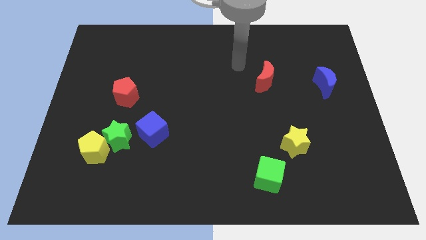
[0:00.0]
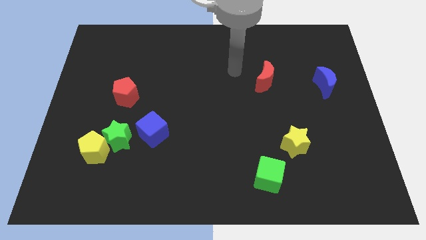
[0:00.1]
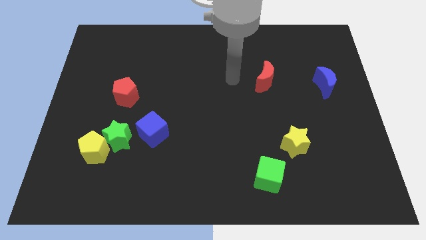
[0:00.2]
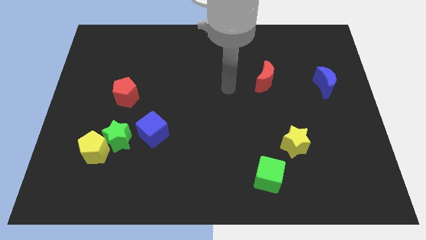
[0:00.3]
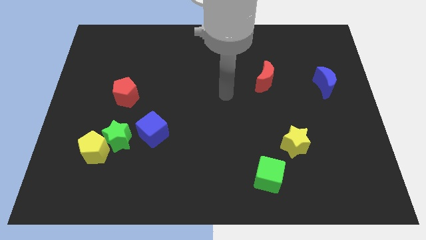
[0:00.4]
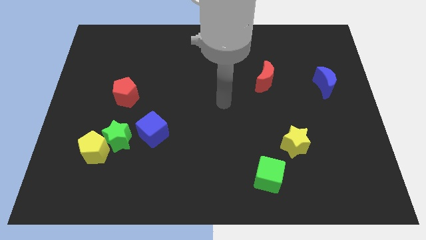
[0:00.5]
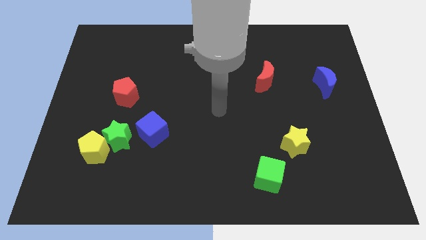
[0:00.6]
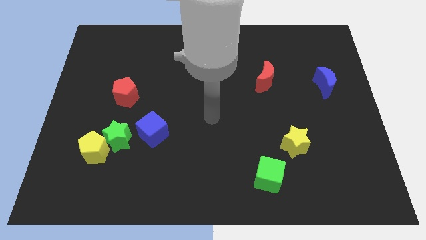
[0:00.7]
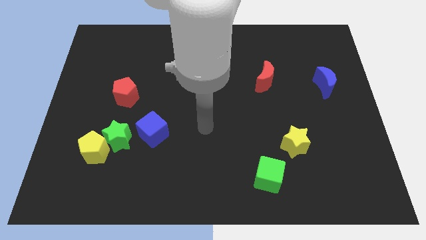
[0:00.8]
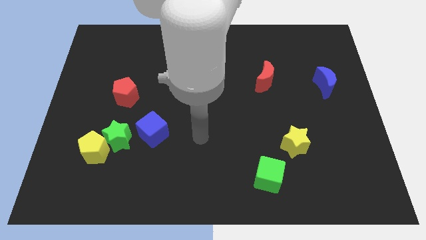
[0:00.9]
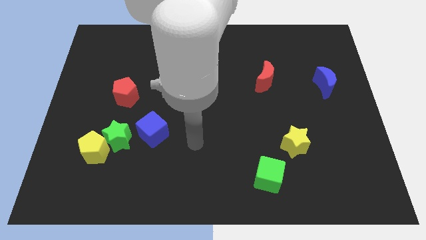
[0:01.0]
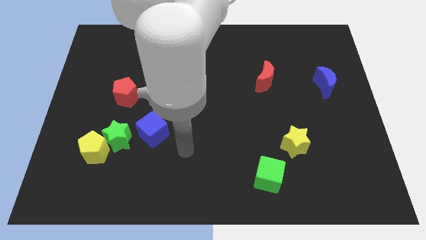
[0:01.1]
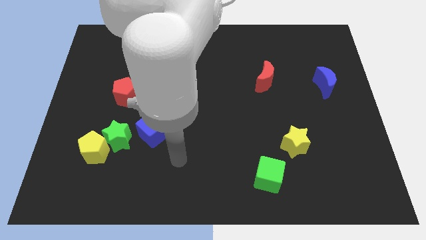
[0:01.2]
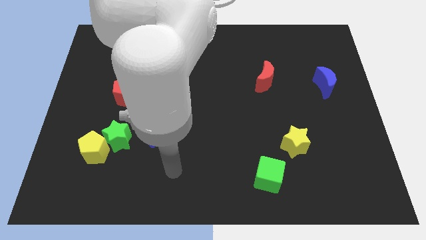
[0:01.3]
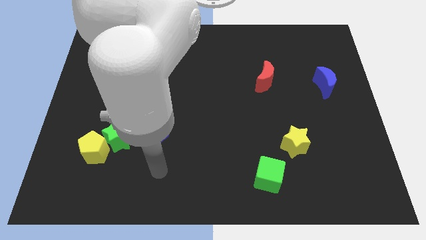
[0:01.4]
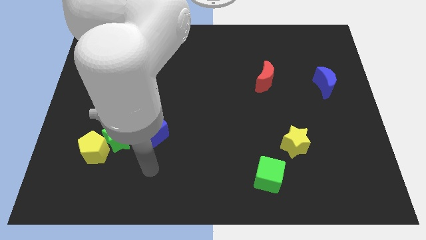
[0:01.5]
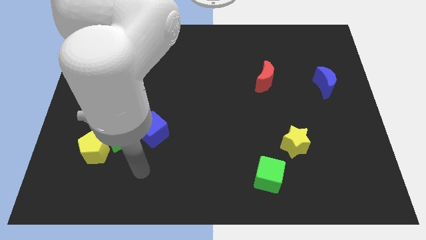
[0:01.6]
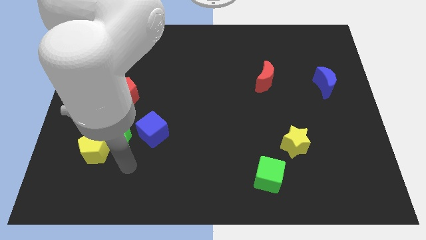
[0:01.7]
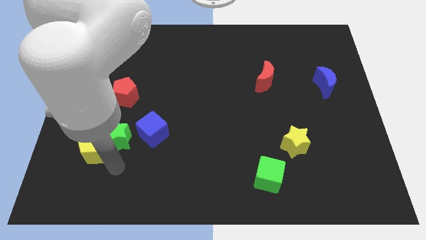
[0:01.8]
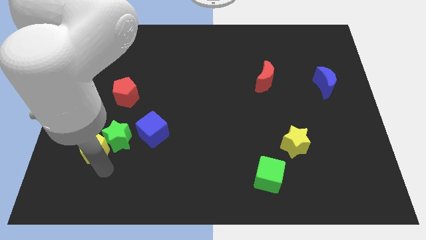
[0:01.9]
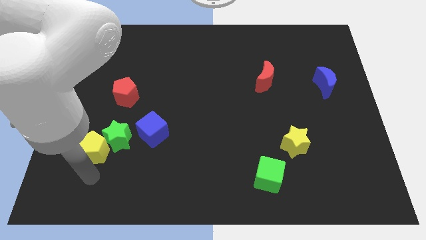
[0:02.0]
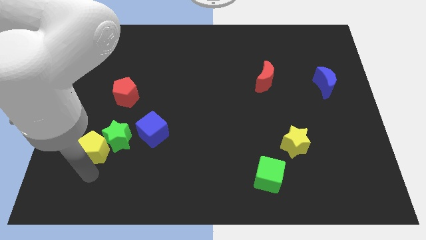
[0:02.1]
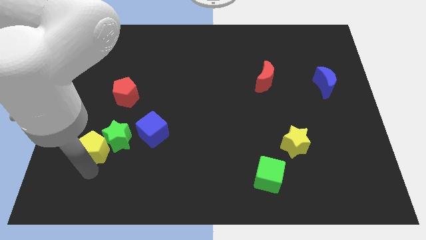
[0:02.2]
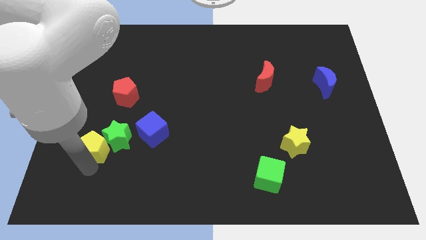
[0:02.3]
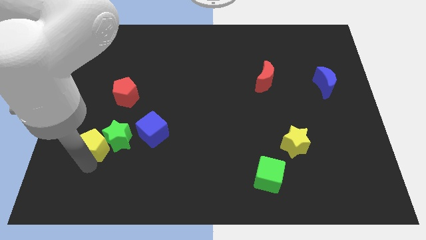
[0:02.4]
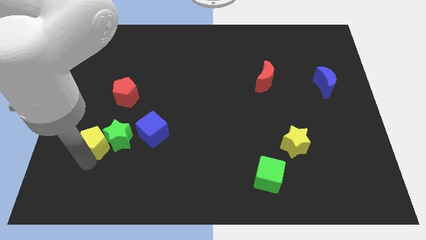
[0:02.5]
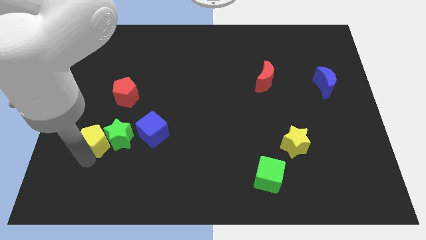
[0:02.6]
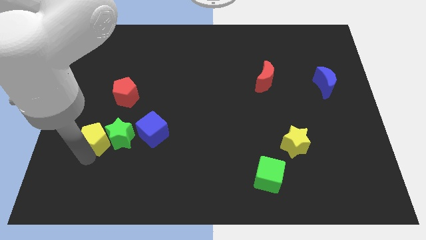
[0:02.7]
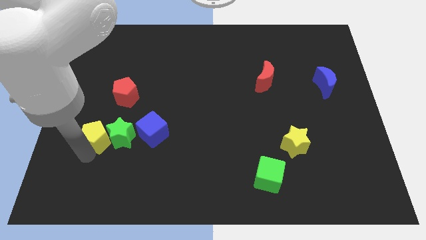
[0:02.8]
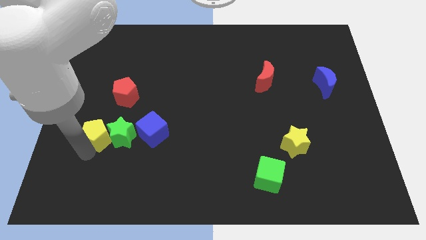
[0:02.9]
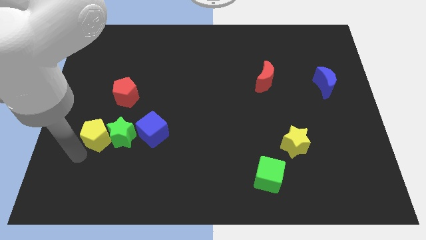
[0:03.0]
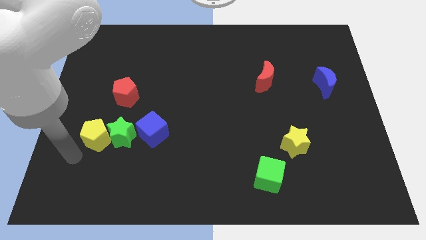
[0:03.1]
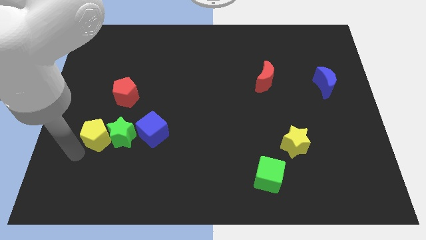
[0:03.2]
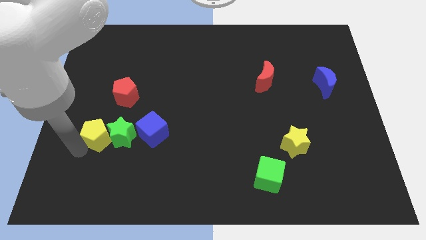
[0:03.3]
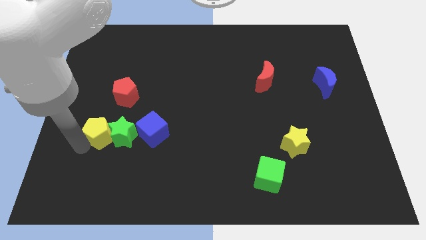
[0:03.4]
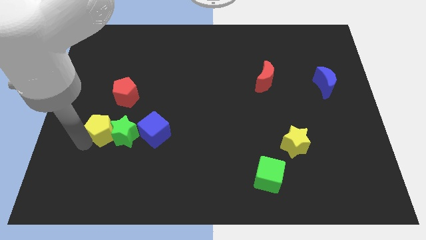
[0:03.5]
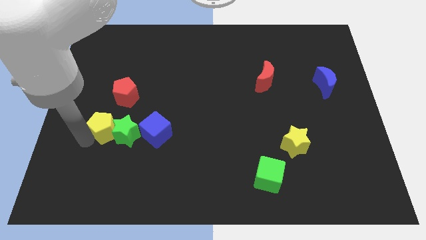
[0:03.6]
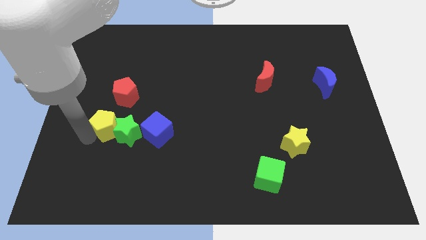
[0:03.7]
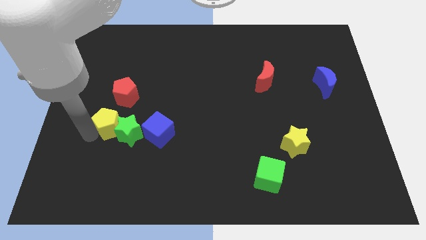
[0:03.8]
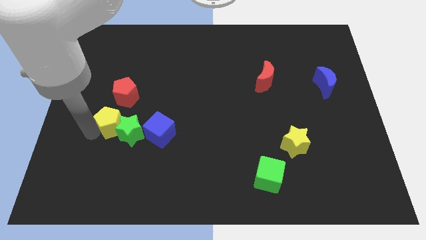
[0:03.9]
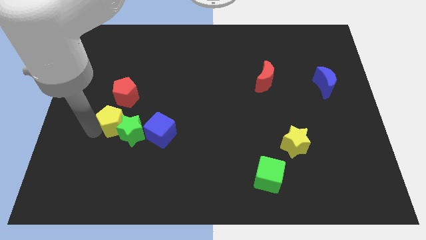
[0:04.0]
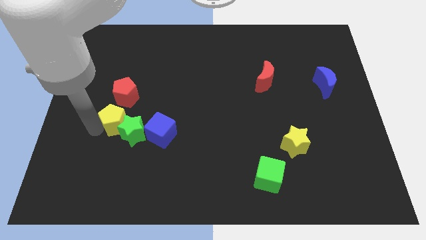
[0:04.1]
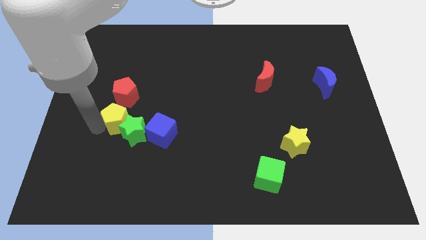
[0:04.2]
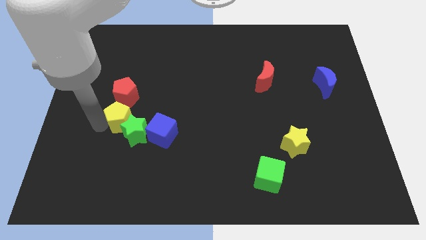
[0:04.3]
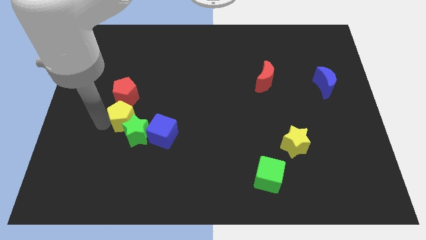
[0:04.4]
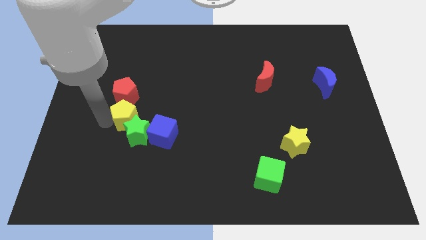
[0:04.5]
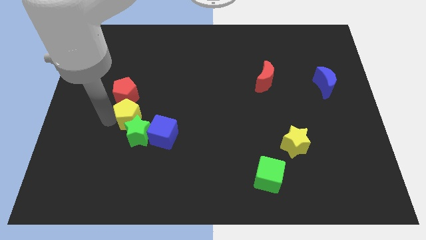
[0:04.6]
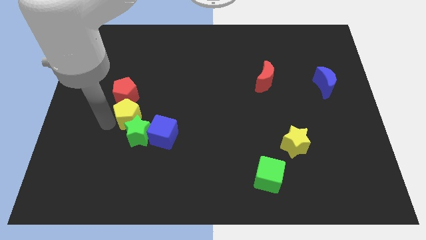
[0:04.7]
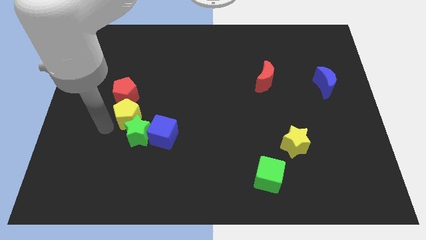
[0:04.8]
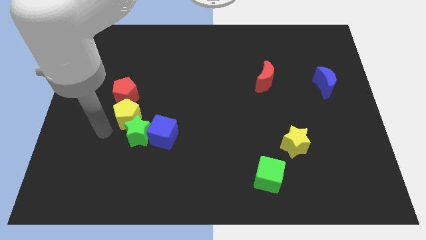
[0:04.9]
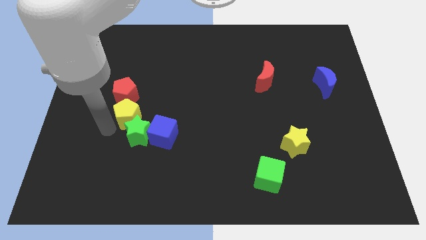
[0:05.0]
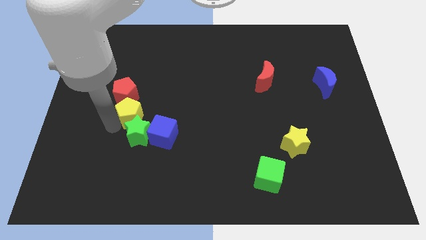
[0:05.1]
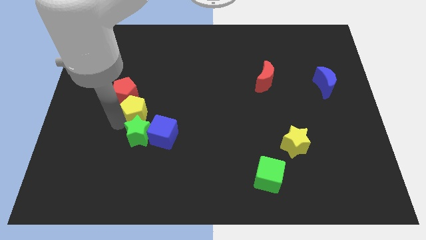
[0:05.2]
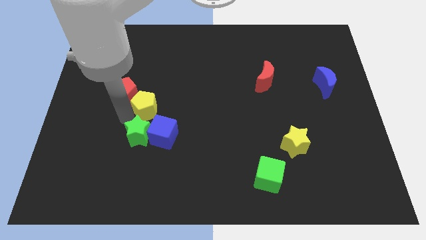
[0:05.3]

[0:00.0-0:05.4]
slide the yellow pentagon right of the red pentagon
